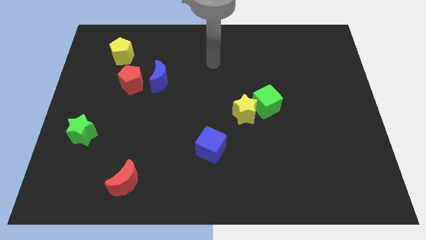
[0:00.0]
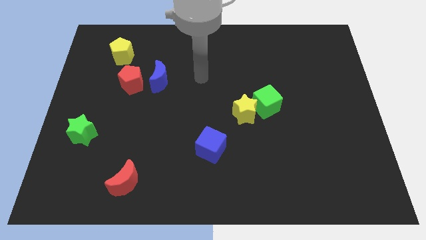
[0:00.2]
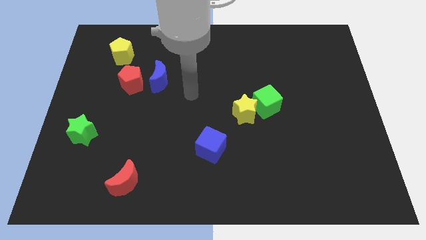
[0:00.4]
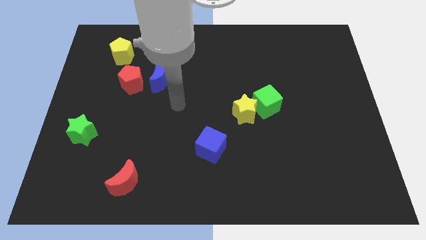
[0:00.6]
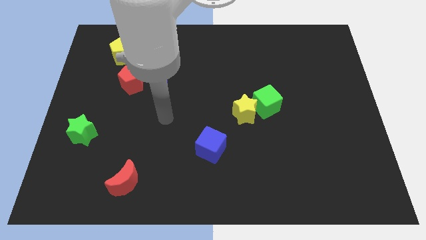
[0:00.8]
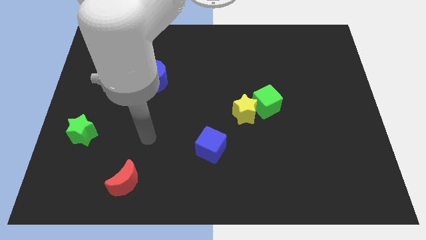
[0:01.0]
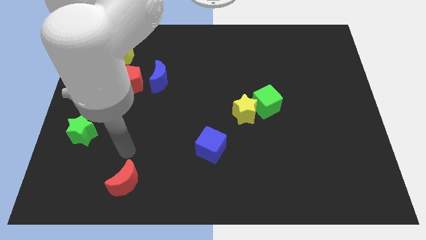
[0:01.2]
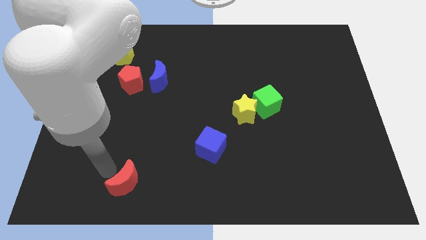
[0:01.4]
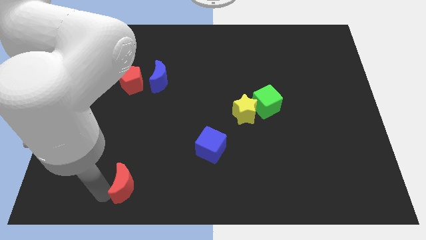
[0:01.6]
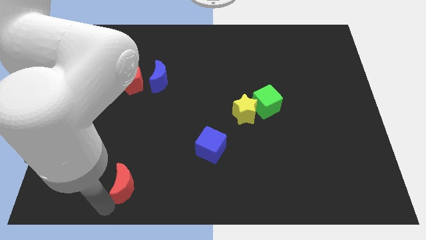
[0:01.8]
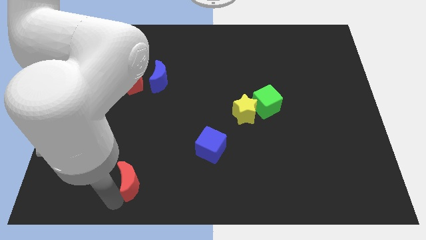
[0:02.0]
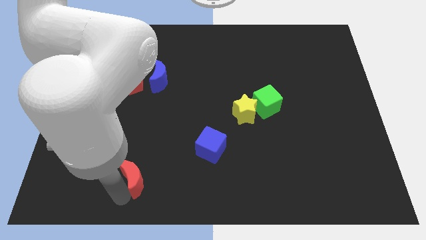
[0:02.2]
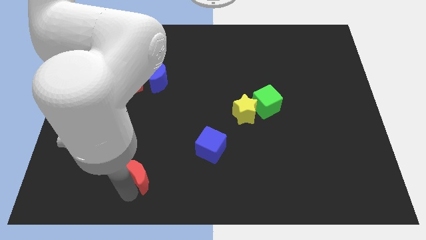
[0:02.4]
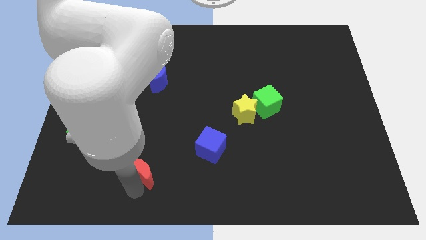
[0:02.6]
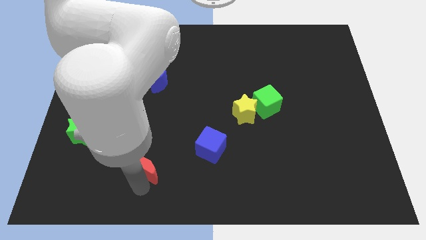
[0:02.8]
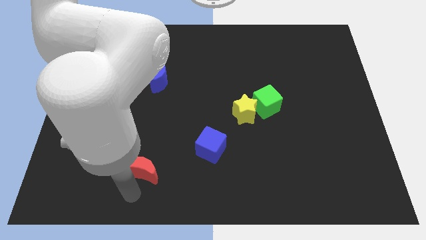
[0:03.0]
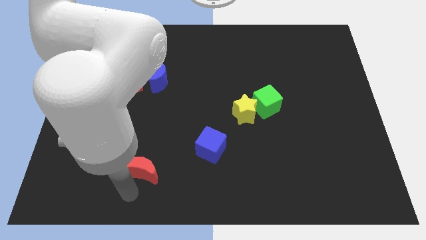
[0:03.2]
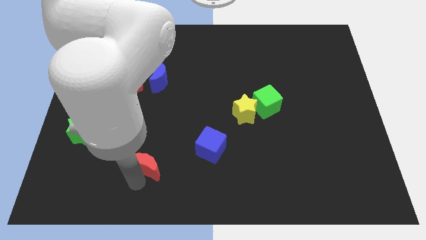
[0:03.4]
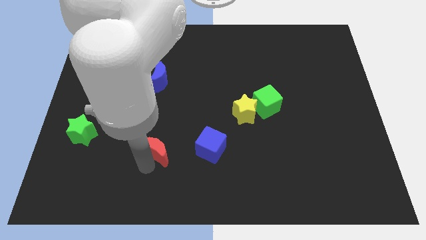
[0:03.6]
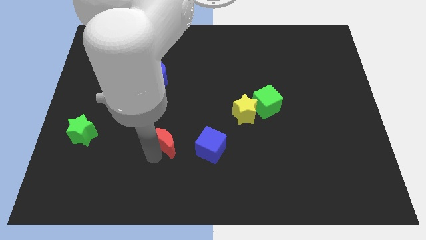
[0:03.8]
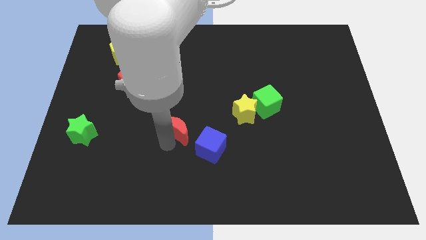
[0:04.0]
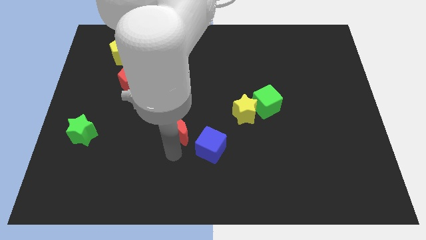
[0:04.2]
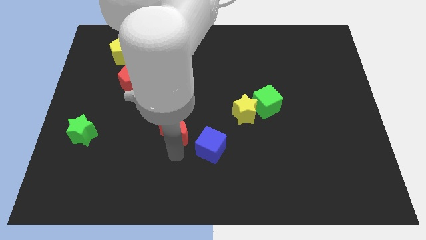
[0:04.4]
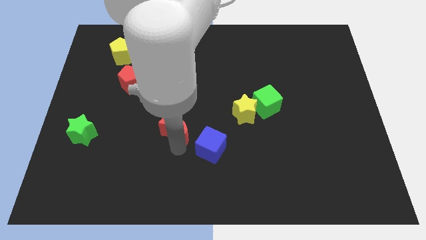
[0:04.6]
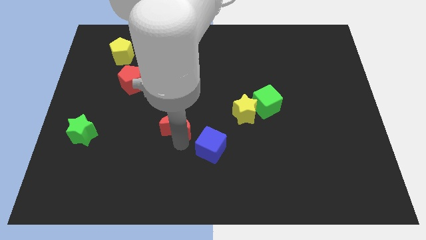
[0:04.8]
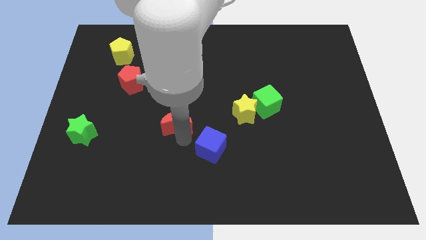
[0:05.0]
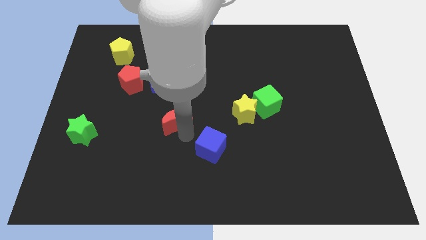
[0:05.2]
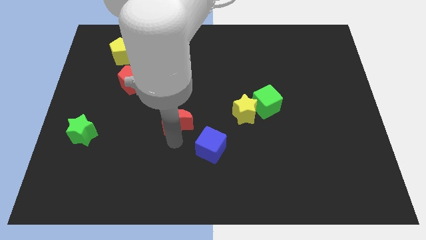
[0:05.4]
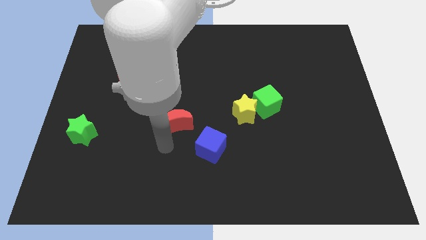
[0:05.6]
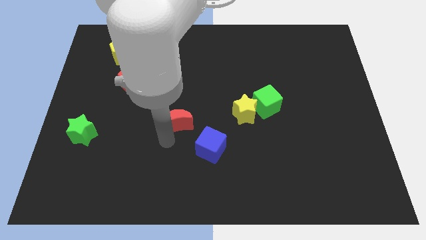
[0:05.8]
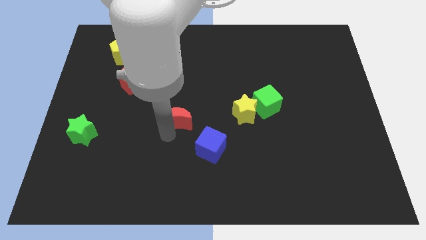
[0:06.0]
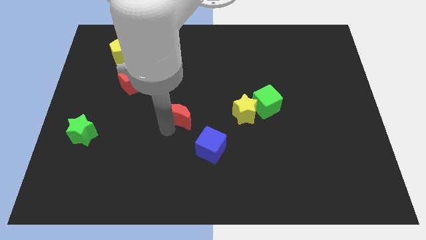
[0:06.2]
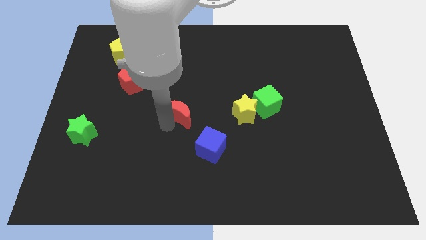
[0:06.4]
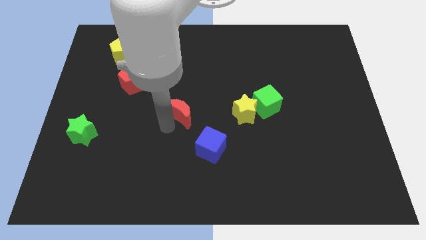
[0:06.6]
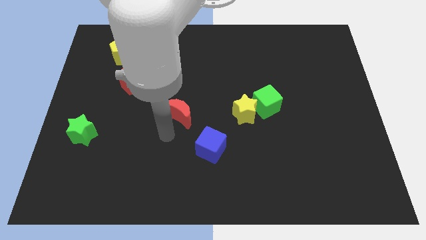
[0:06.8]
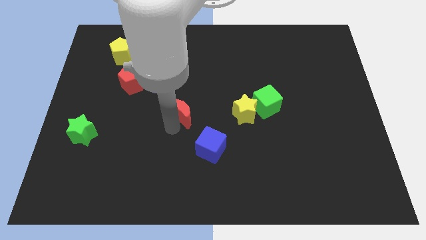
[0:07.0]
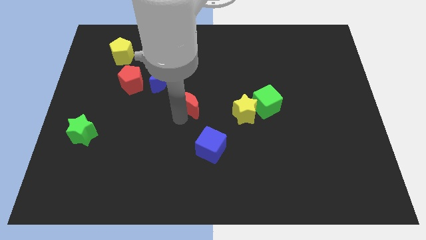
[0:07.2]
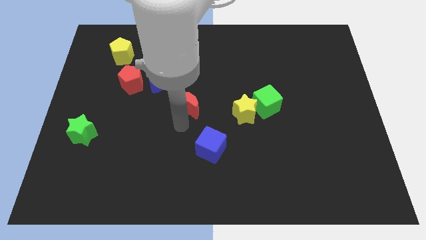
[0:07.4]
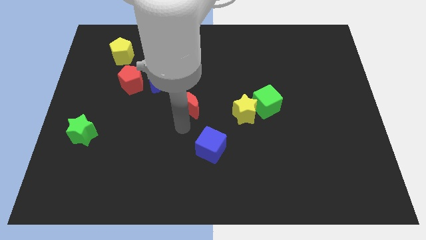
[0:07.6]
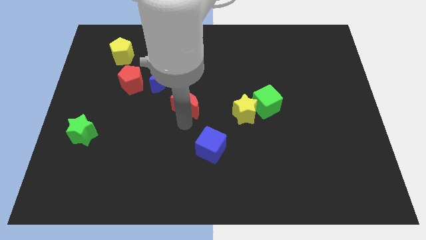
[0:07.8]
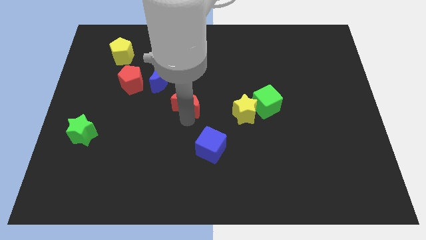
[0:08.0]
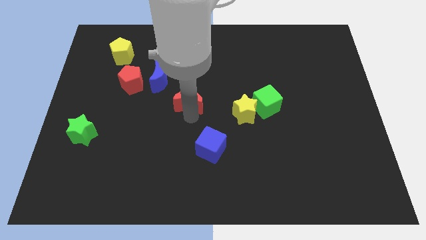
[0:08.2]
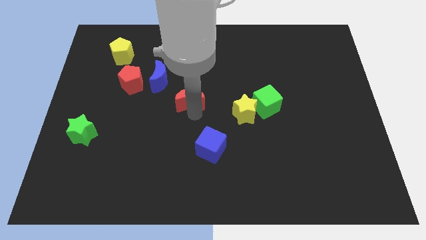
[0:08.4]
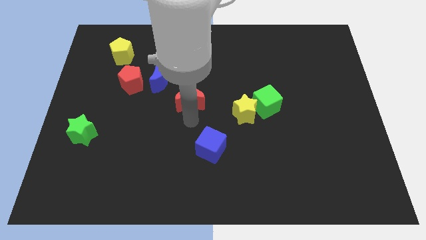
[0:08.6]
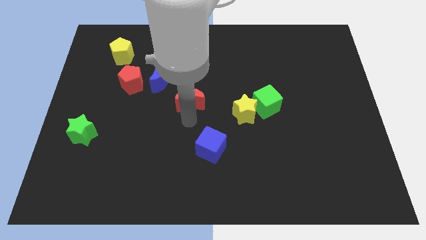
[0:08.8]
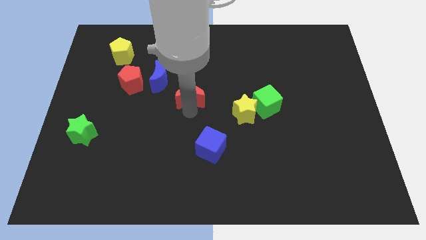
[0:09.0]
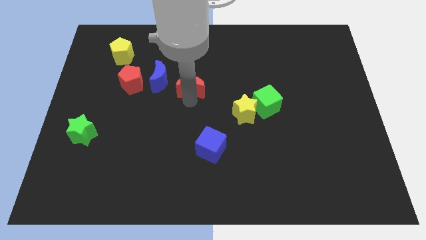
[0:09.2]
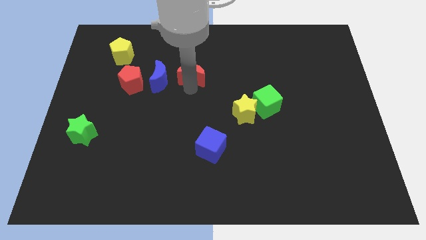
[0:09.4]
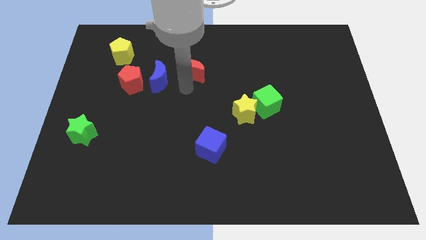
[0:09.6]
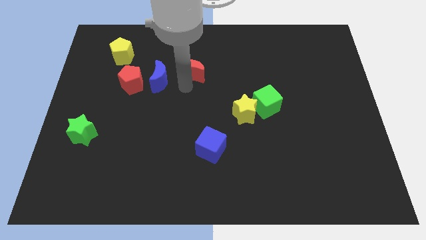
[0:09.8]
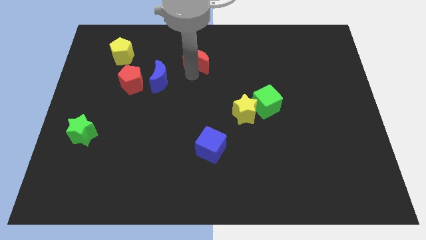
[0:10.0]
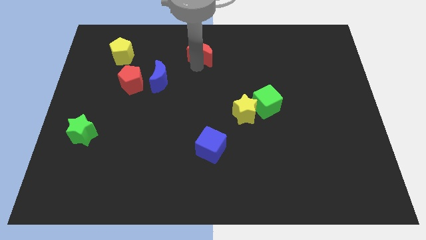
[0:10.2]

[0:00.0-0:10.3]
push the red moon to the top side

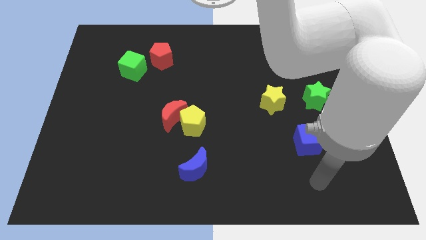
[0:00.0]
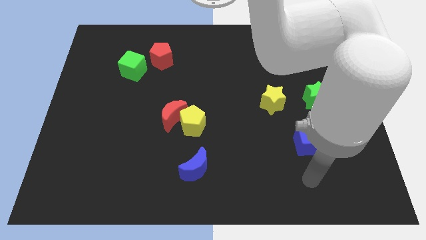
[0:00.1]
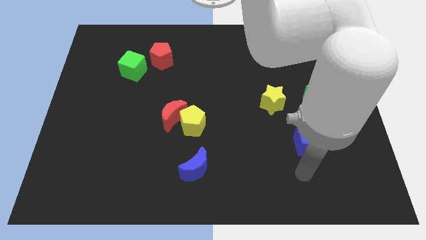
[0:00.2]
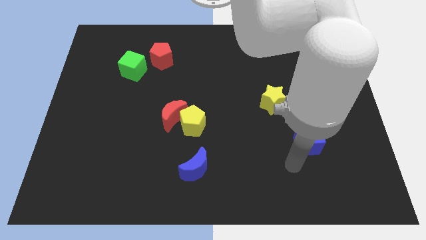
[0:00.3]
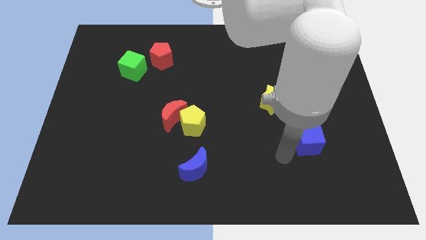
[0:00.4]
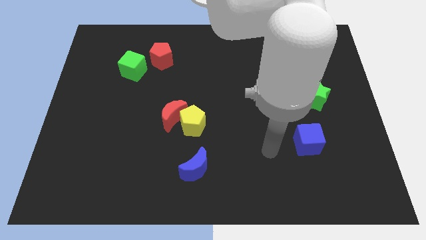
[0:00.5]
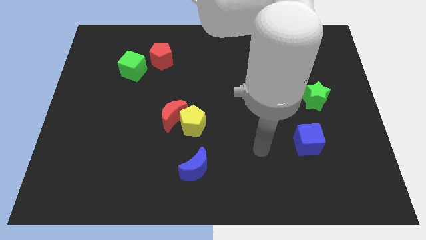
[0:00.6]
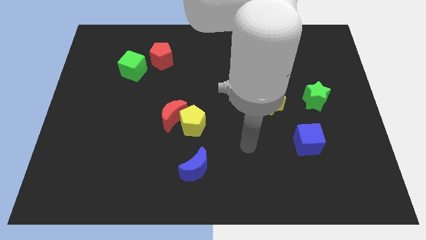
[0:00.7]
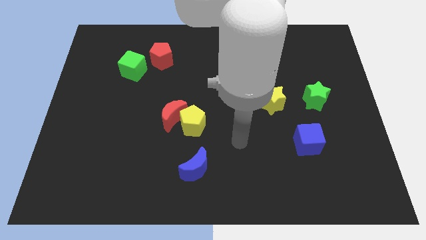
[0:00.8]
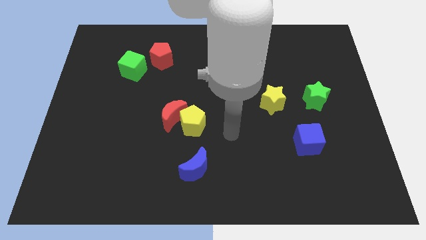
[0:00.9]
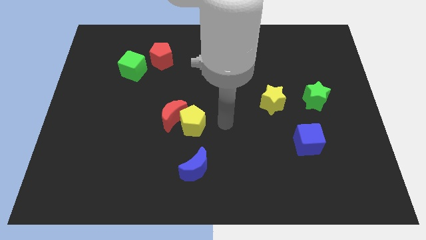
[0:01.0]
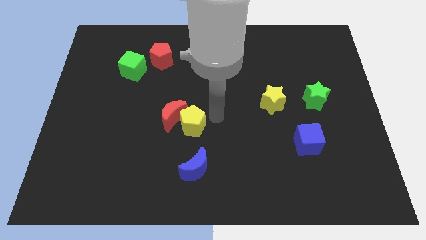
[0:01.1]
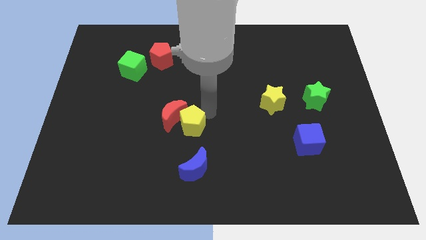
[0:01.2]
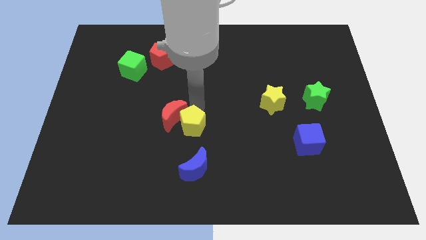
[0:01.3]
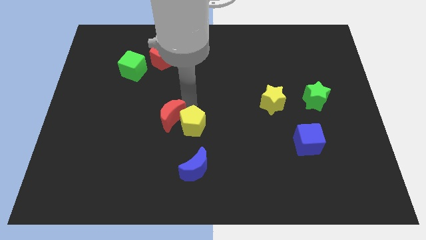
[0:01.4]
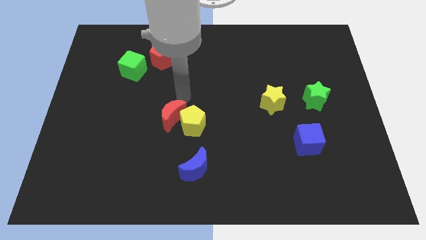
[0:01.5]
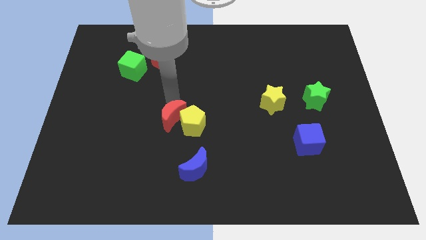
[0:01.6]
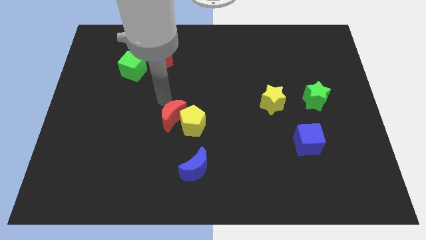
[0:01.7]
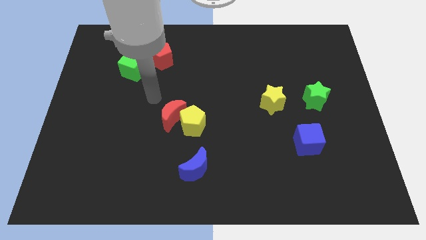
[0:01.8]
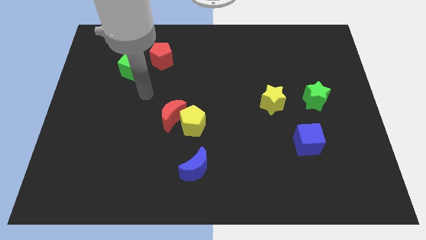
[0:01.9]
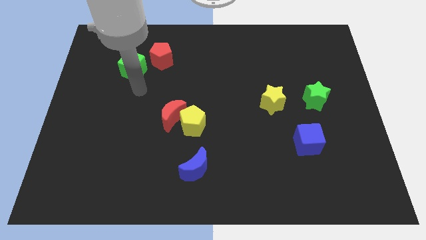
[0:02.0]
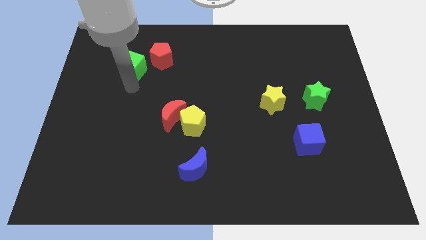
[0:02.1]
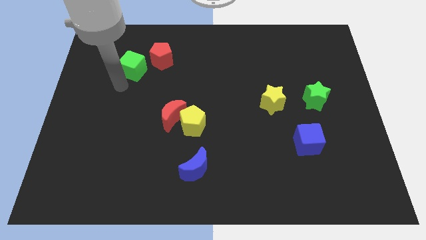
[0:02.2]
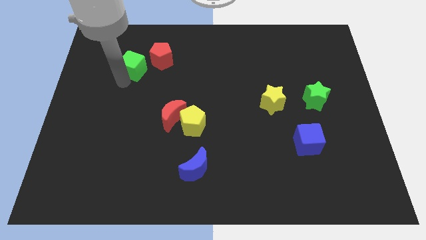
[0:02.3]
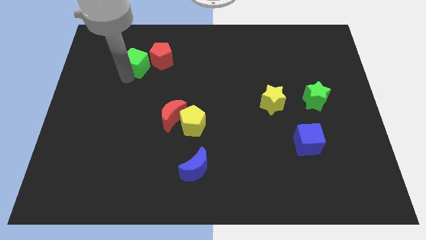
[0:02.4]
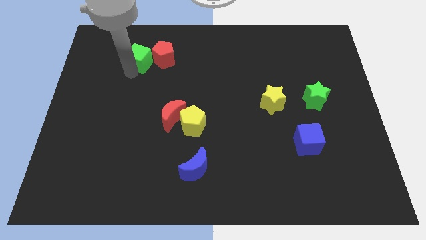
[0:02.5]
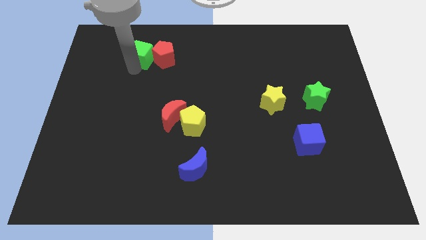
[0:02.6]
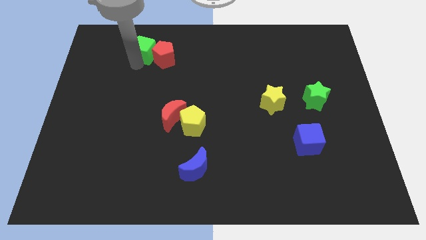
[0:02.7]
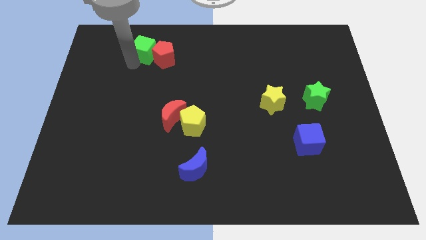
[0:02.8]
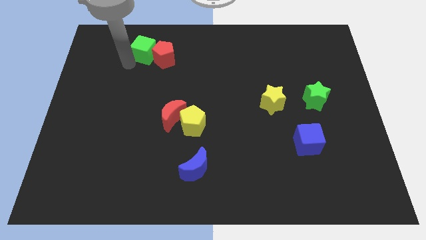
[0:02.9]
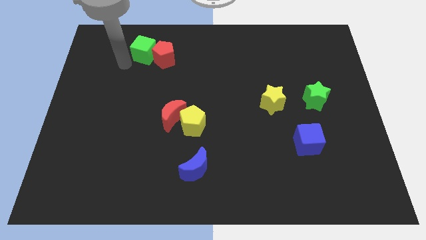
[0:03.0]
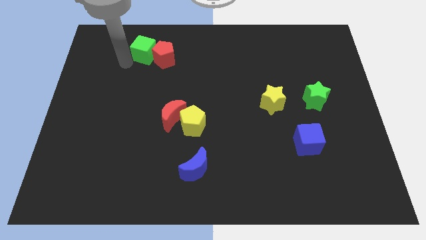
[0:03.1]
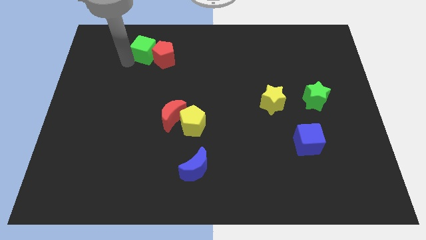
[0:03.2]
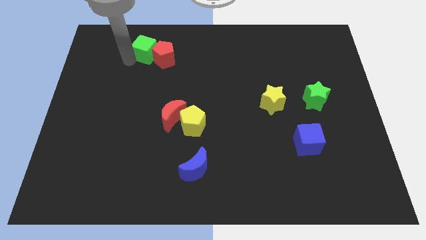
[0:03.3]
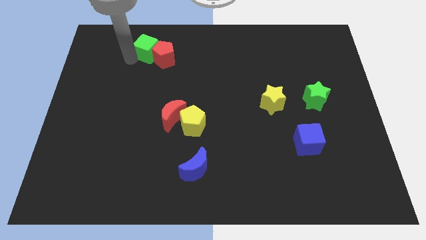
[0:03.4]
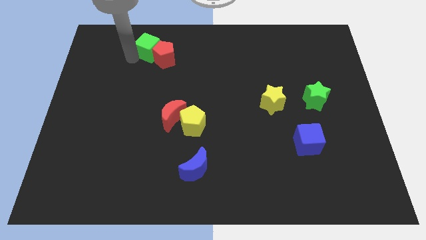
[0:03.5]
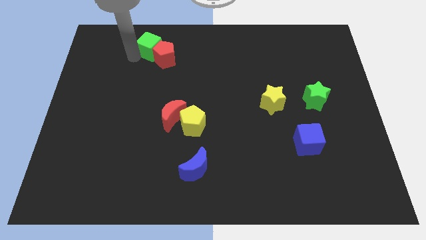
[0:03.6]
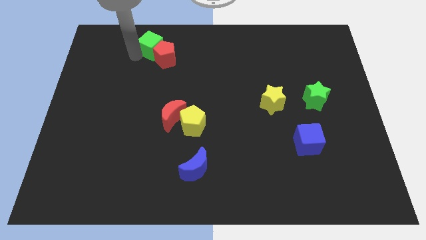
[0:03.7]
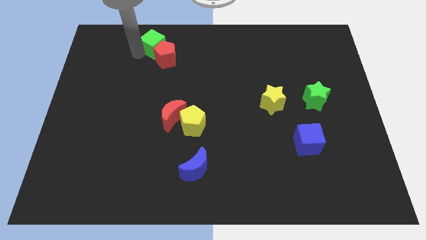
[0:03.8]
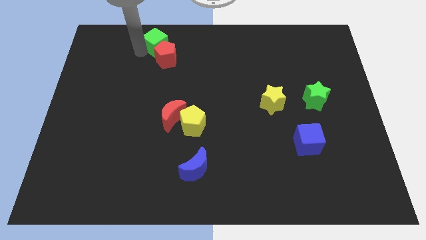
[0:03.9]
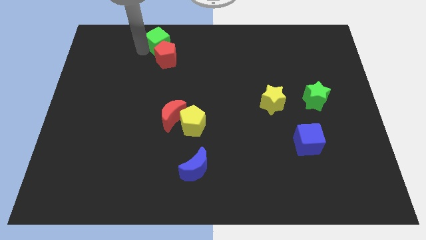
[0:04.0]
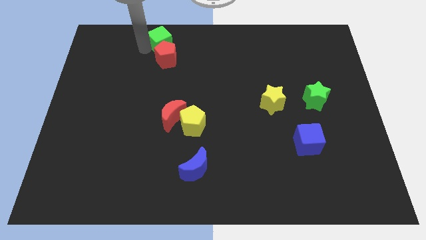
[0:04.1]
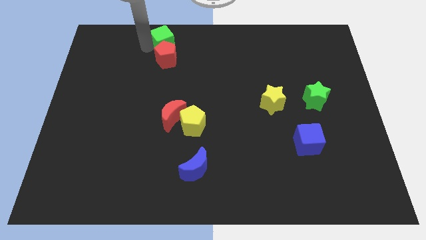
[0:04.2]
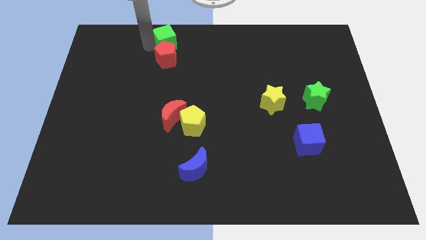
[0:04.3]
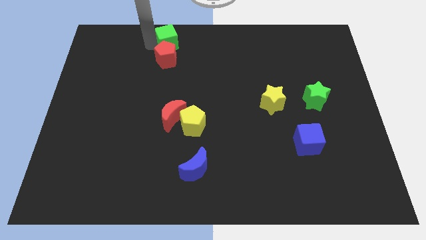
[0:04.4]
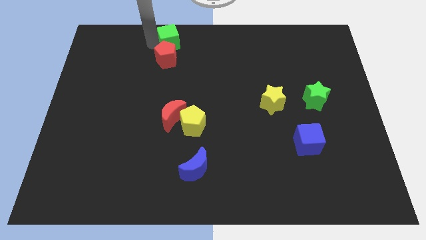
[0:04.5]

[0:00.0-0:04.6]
push the green cube to the top
